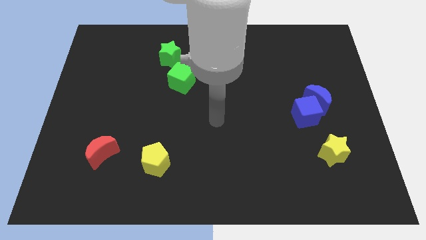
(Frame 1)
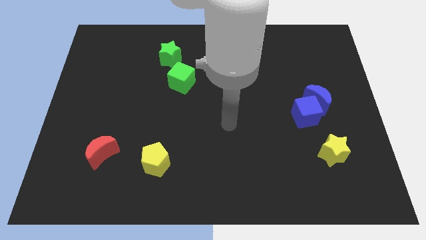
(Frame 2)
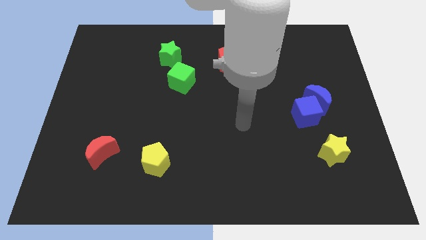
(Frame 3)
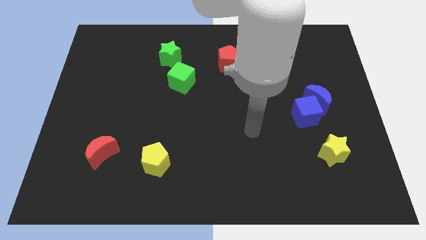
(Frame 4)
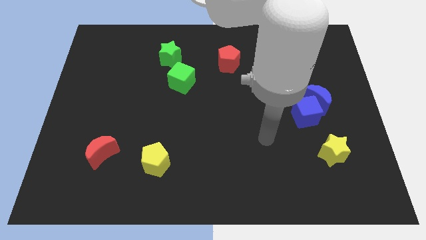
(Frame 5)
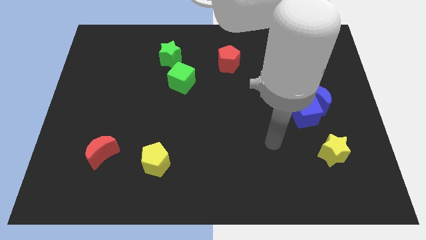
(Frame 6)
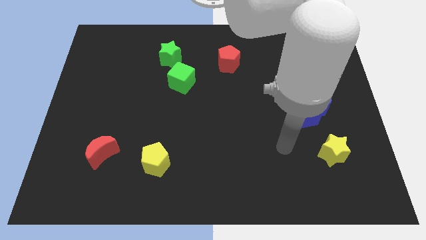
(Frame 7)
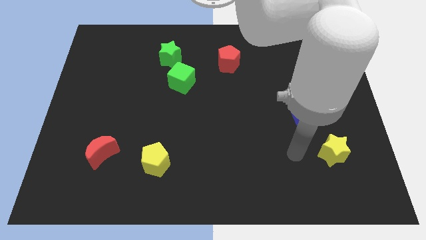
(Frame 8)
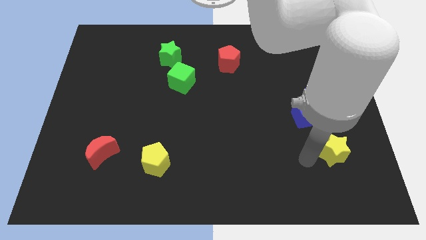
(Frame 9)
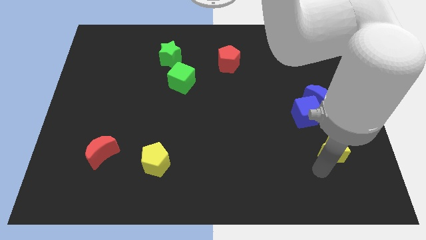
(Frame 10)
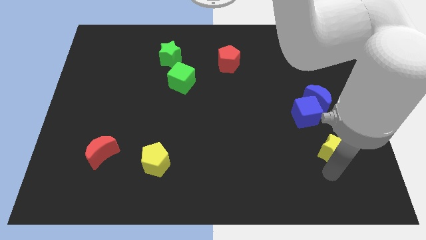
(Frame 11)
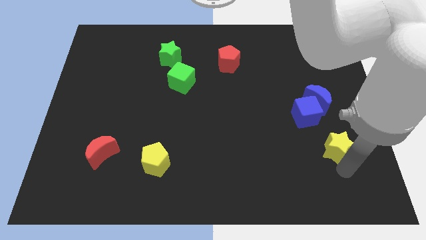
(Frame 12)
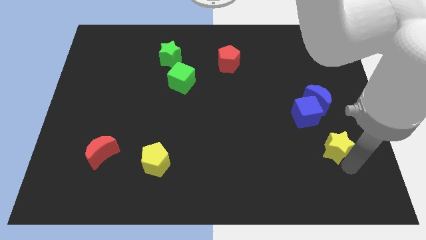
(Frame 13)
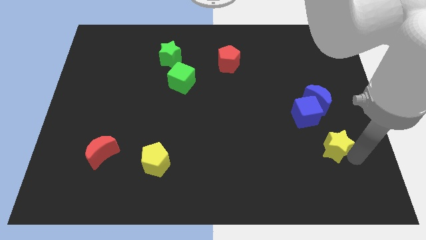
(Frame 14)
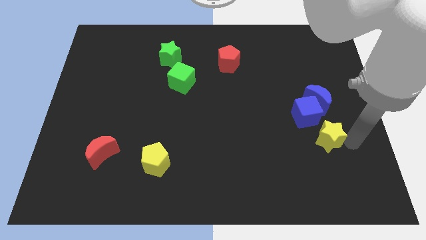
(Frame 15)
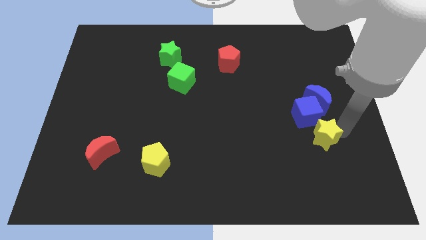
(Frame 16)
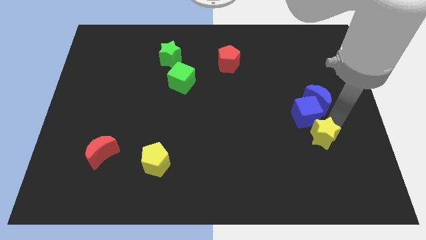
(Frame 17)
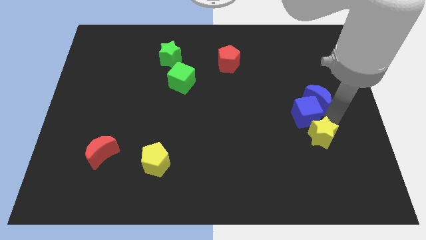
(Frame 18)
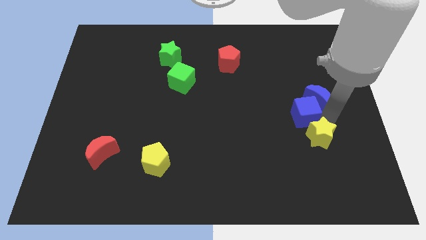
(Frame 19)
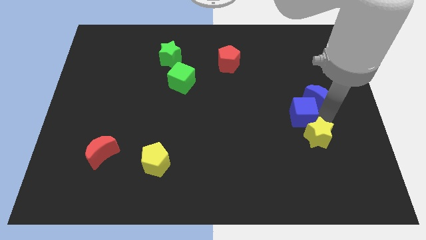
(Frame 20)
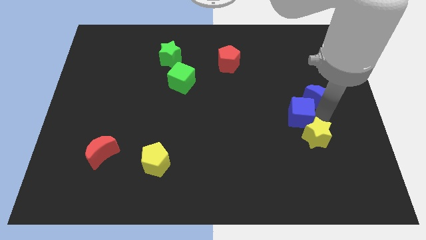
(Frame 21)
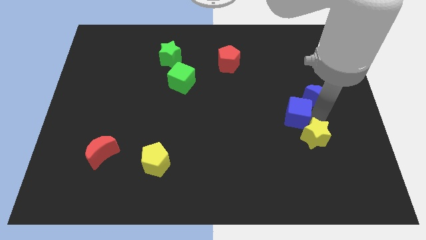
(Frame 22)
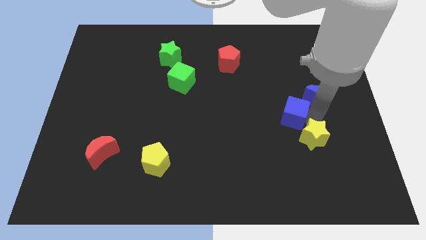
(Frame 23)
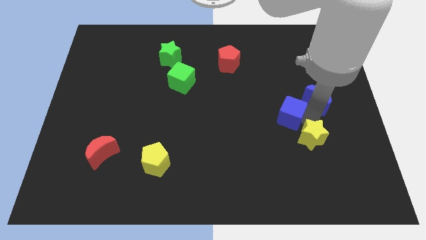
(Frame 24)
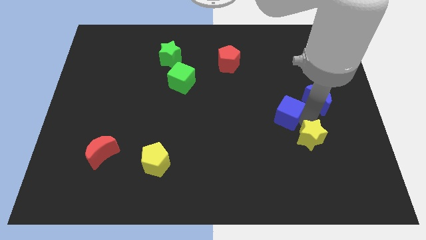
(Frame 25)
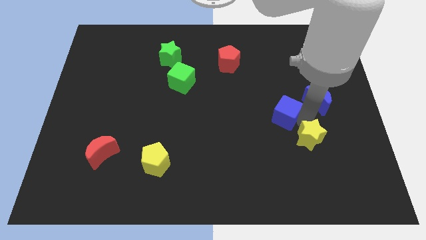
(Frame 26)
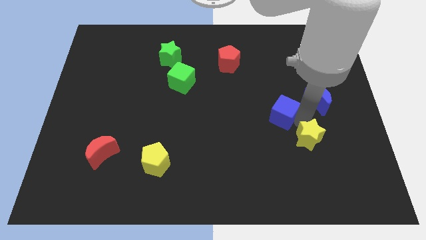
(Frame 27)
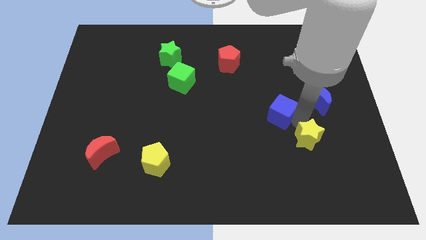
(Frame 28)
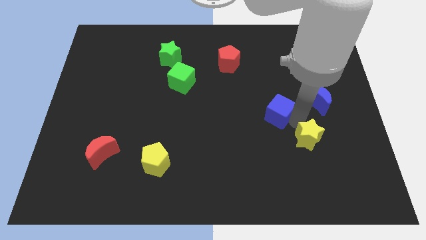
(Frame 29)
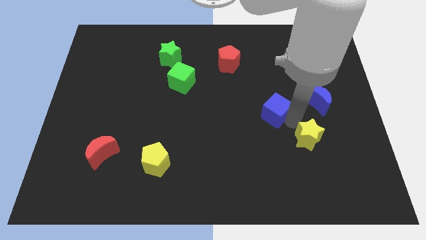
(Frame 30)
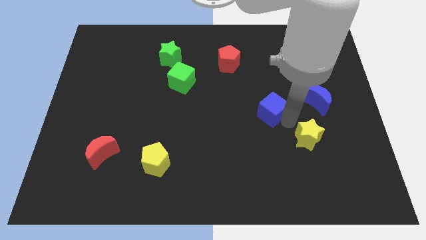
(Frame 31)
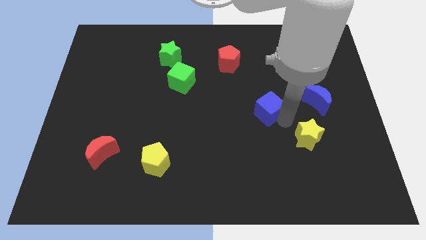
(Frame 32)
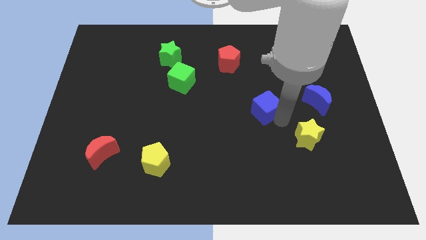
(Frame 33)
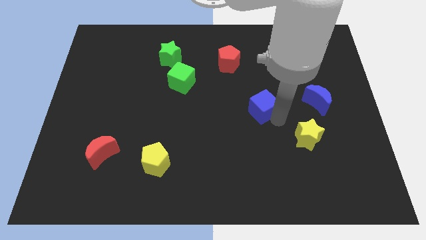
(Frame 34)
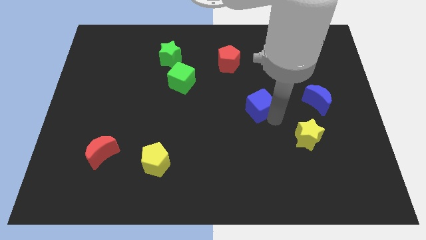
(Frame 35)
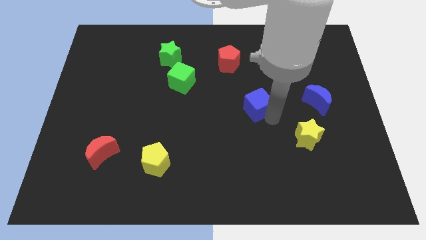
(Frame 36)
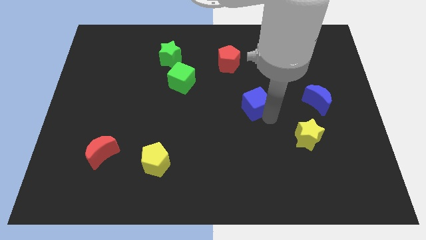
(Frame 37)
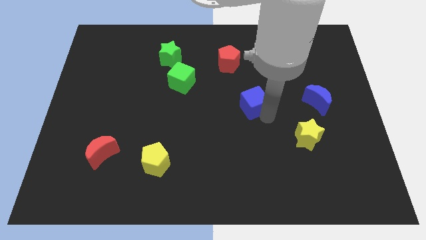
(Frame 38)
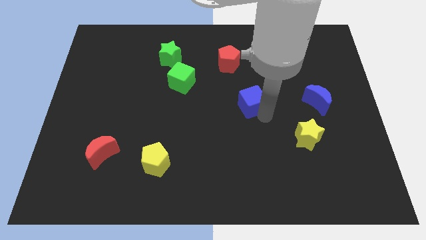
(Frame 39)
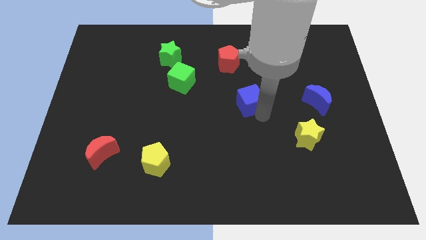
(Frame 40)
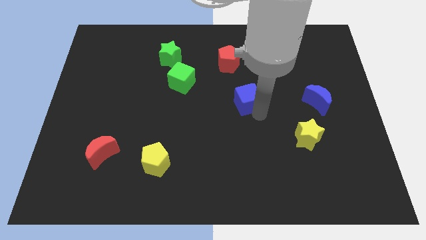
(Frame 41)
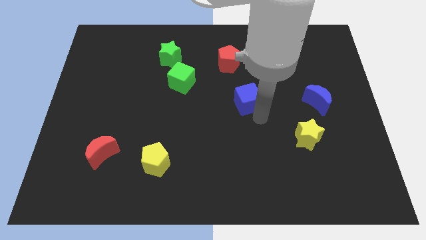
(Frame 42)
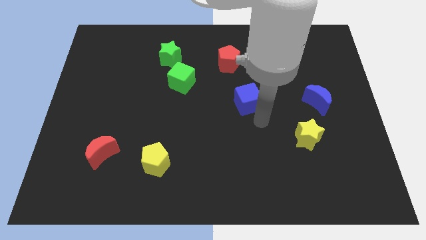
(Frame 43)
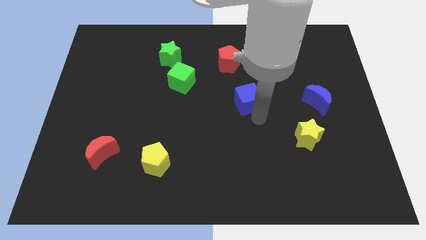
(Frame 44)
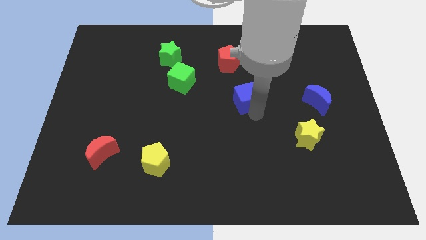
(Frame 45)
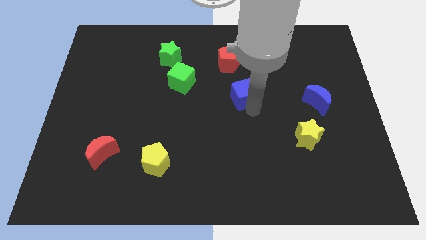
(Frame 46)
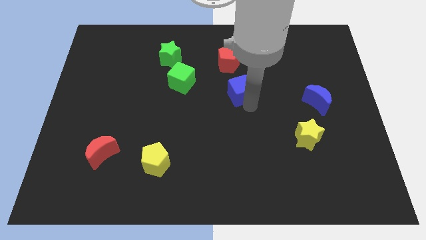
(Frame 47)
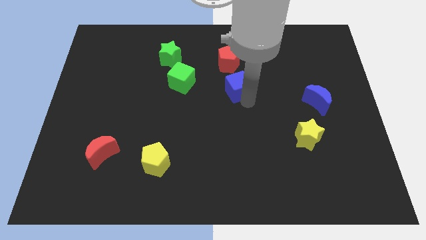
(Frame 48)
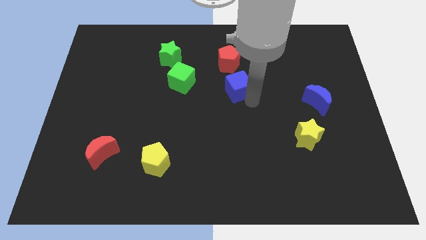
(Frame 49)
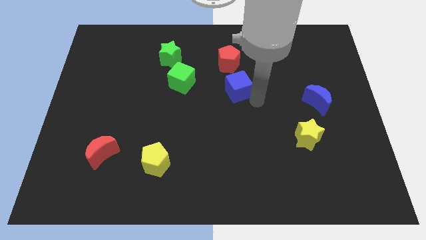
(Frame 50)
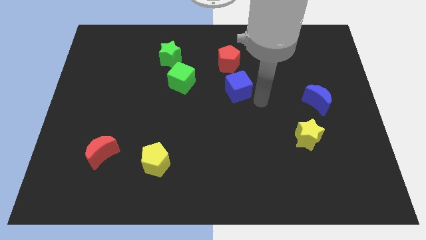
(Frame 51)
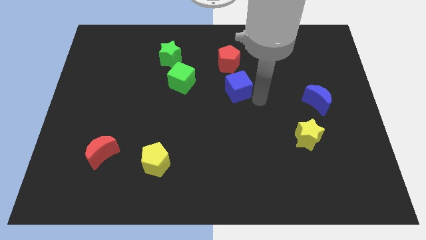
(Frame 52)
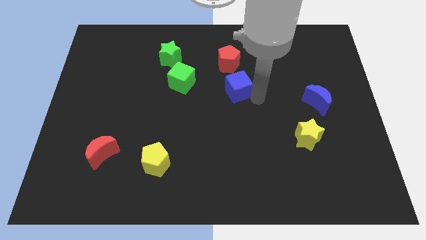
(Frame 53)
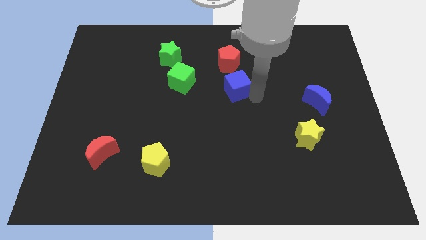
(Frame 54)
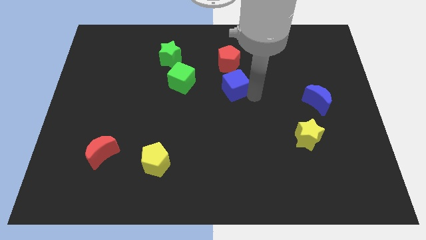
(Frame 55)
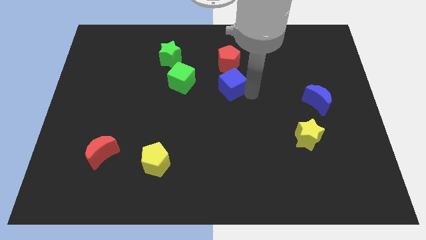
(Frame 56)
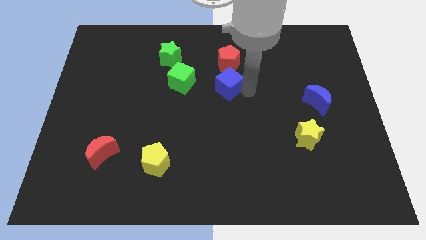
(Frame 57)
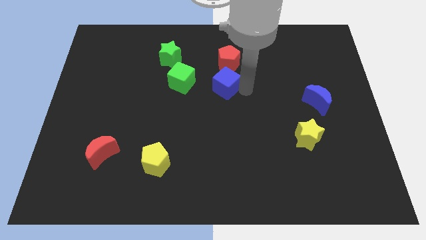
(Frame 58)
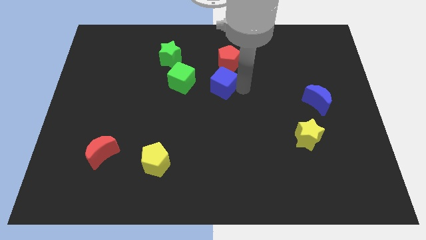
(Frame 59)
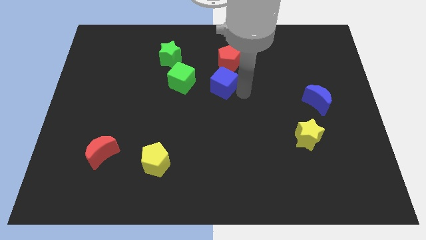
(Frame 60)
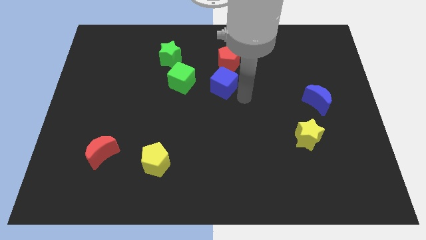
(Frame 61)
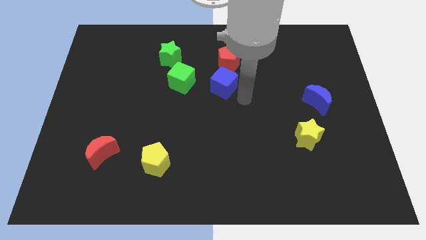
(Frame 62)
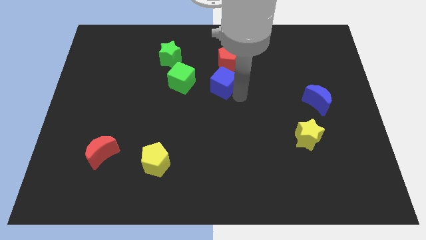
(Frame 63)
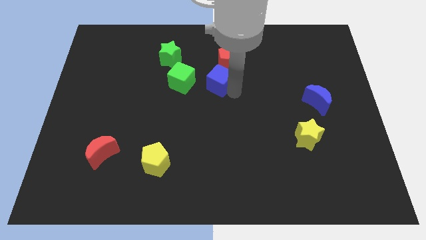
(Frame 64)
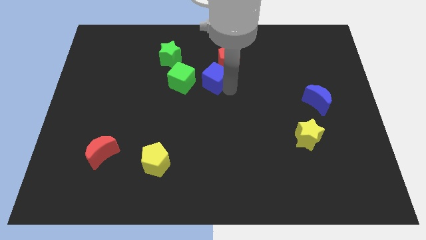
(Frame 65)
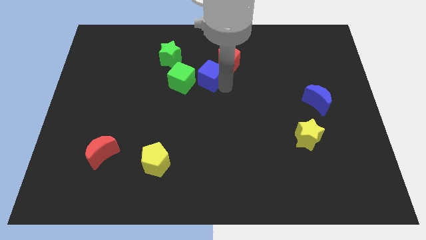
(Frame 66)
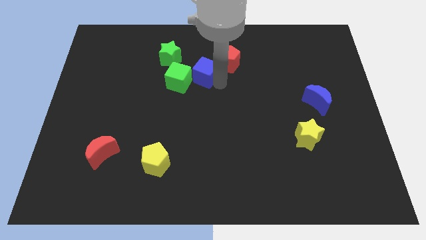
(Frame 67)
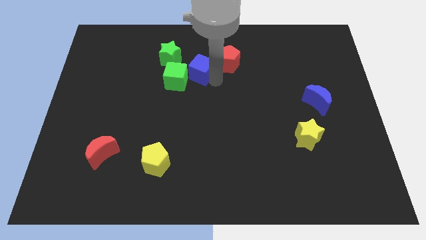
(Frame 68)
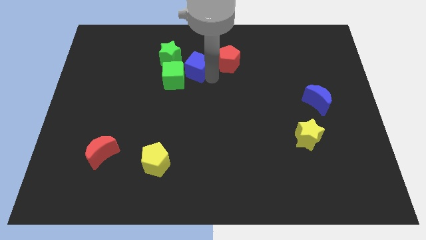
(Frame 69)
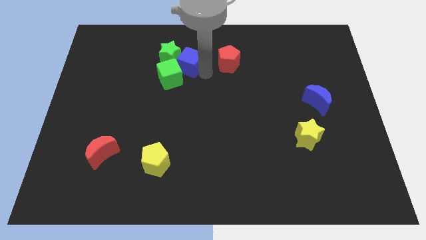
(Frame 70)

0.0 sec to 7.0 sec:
move the blue cube towards the green star
